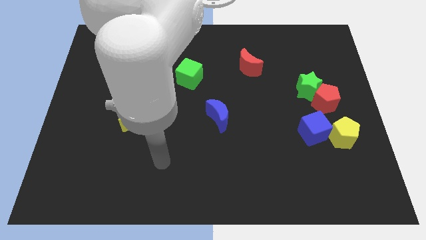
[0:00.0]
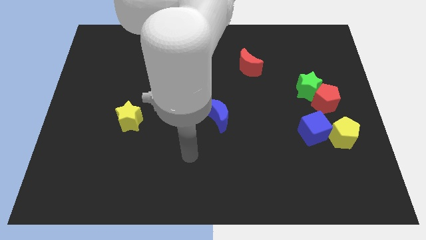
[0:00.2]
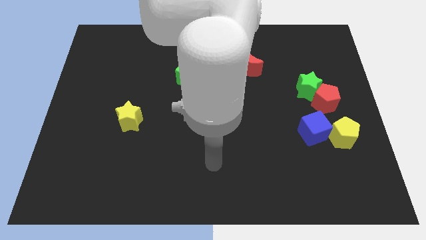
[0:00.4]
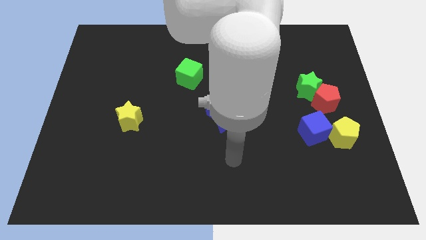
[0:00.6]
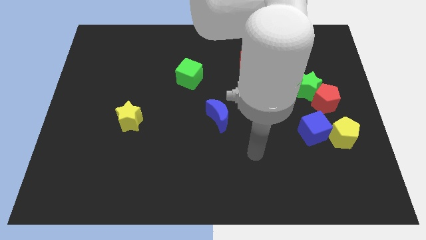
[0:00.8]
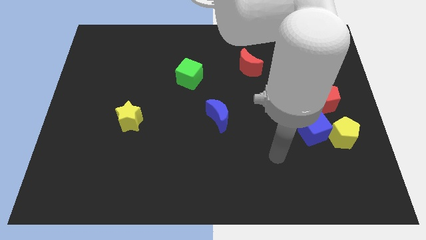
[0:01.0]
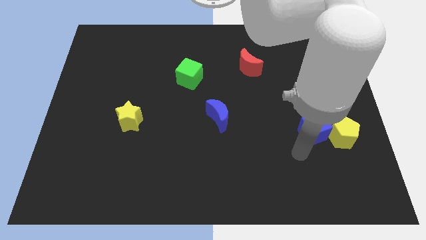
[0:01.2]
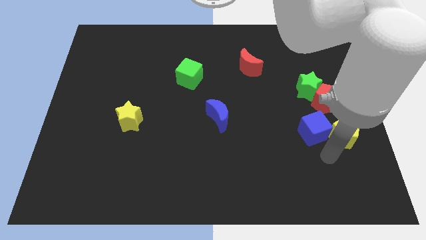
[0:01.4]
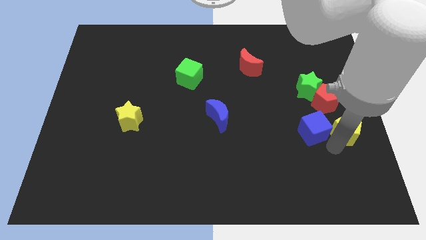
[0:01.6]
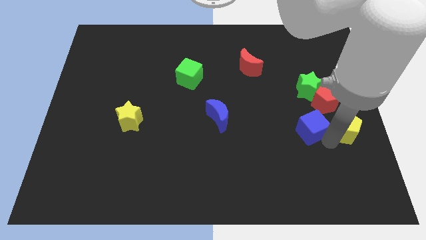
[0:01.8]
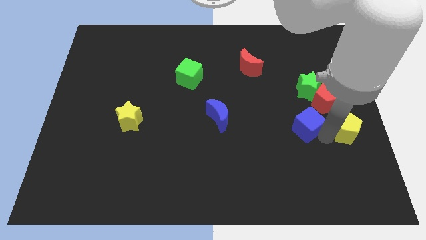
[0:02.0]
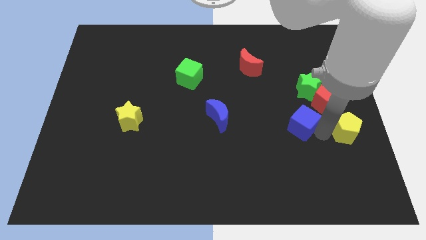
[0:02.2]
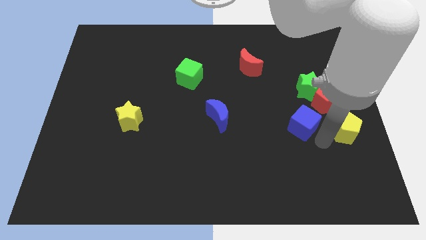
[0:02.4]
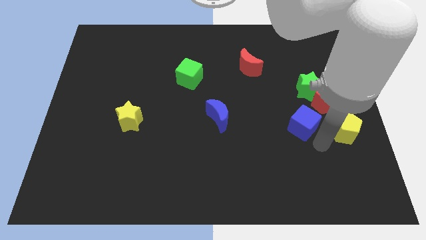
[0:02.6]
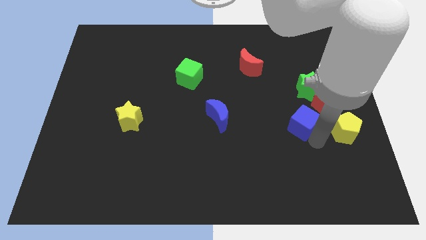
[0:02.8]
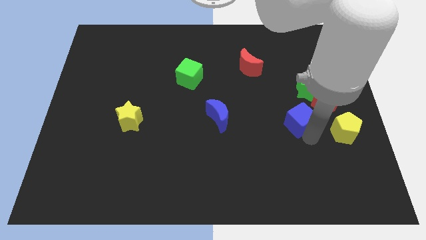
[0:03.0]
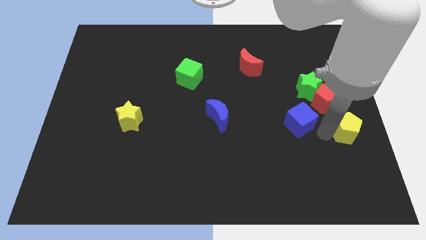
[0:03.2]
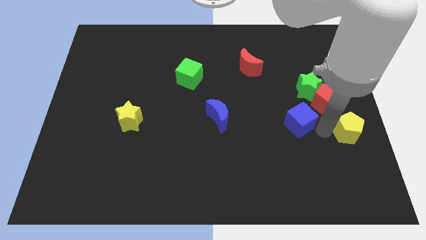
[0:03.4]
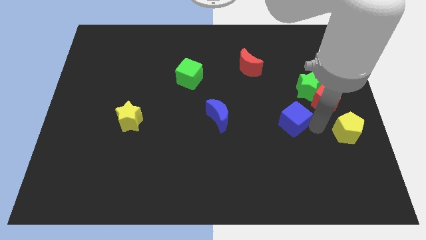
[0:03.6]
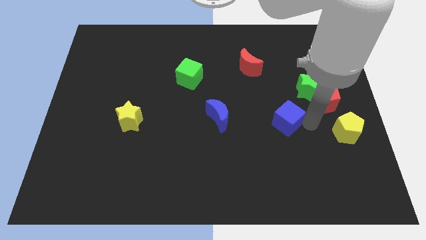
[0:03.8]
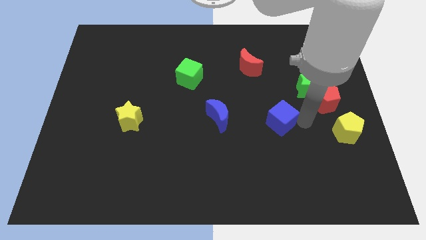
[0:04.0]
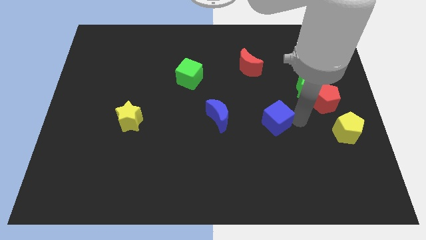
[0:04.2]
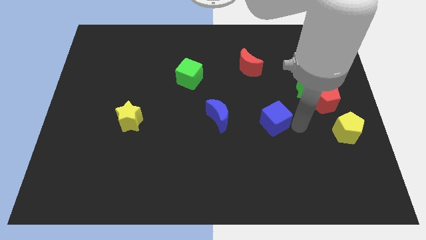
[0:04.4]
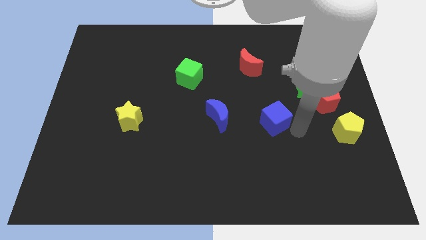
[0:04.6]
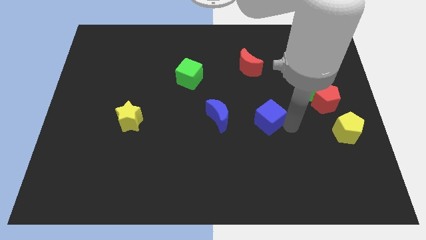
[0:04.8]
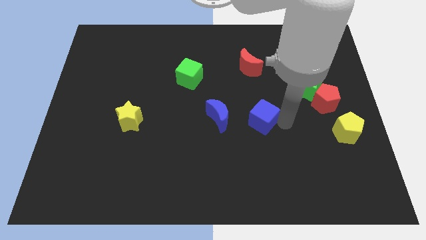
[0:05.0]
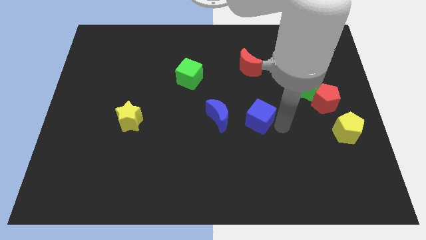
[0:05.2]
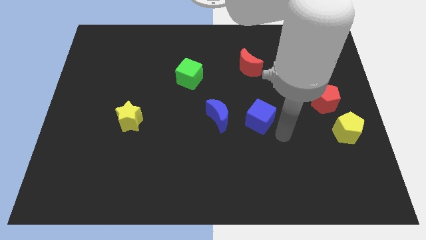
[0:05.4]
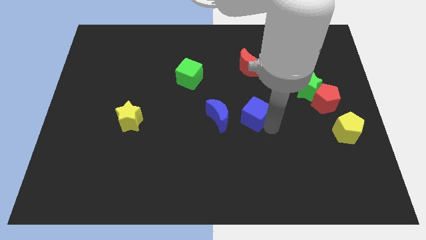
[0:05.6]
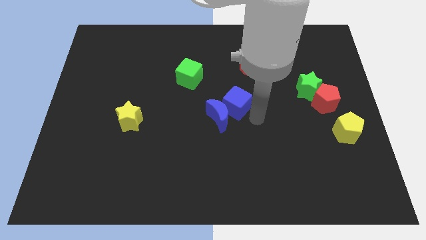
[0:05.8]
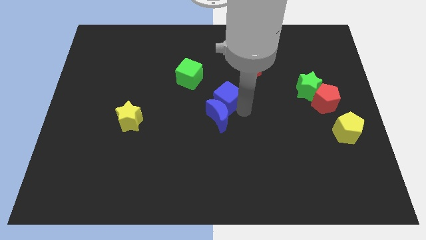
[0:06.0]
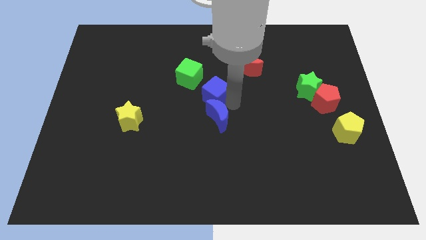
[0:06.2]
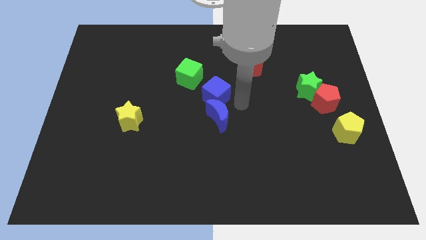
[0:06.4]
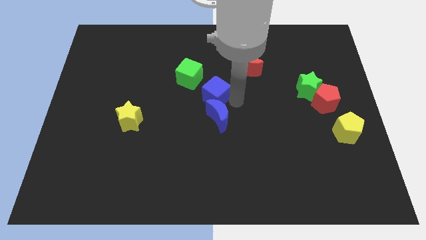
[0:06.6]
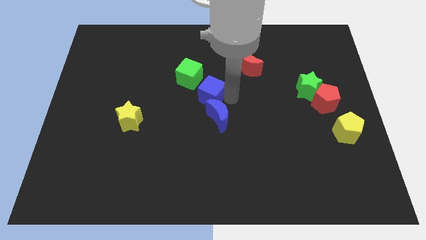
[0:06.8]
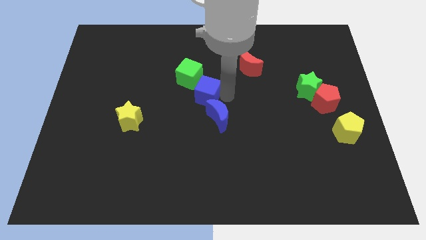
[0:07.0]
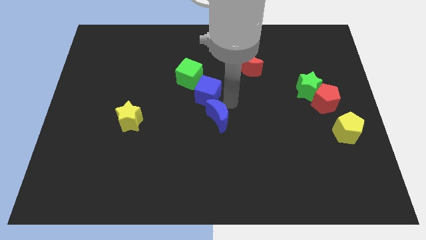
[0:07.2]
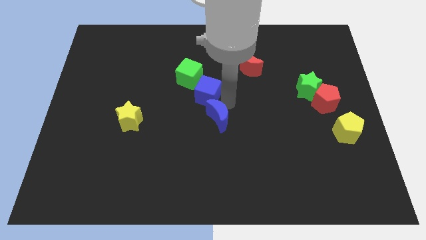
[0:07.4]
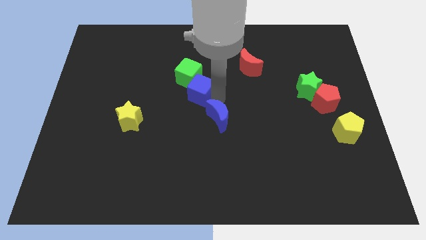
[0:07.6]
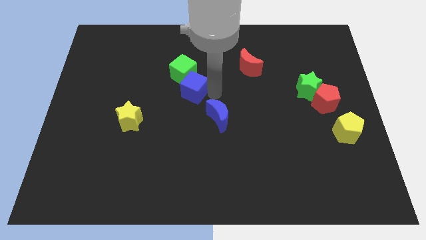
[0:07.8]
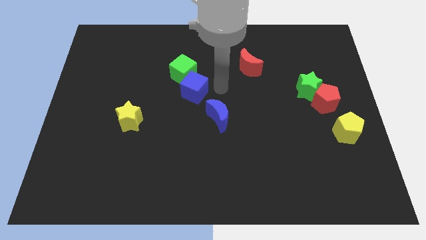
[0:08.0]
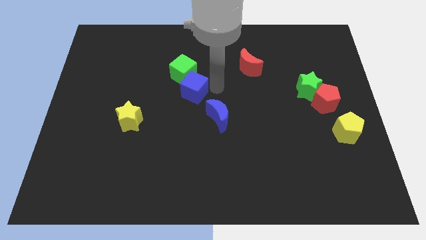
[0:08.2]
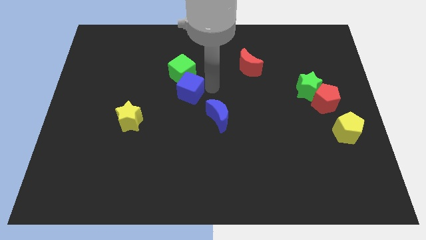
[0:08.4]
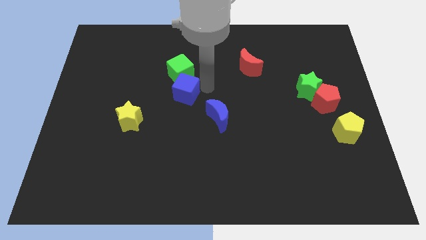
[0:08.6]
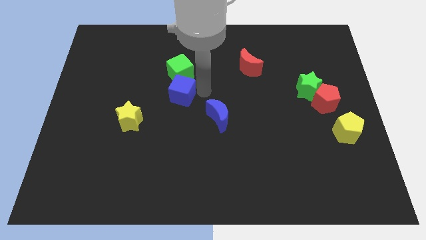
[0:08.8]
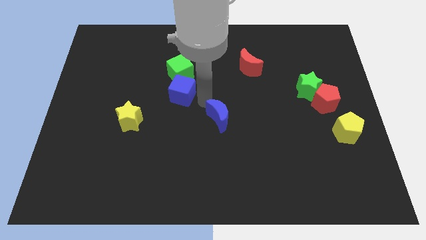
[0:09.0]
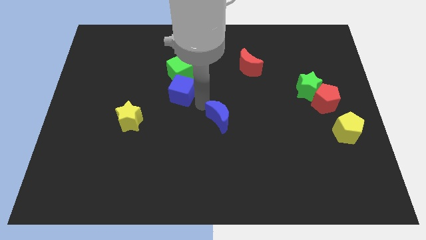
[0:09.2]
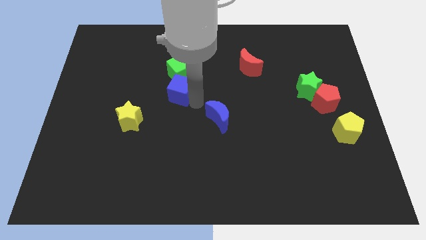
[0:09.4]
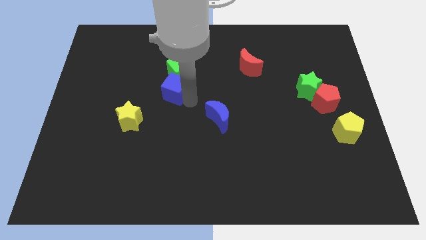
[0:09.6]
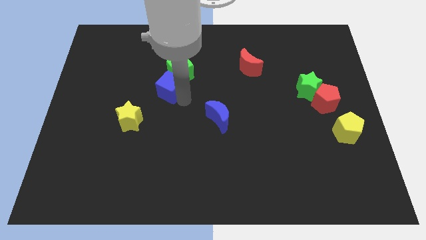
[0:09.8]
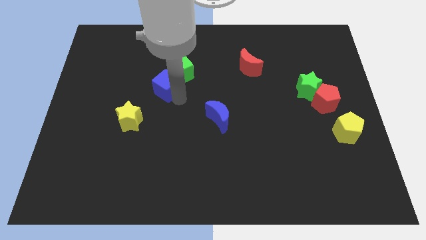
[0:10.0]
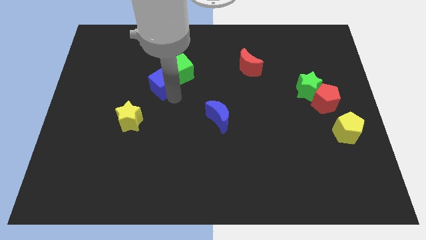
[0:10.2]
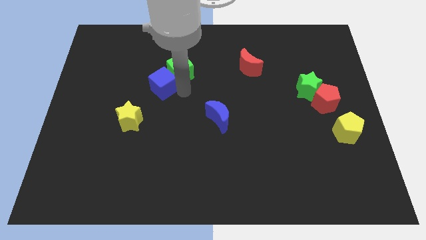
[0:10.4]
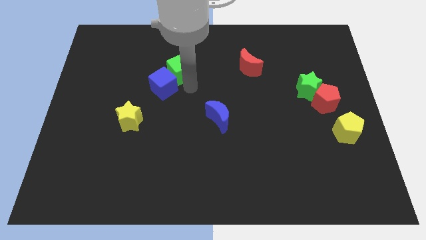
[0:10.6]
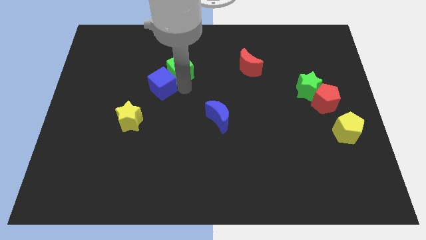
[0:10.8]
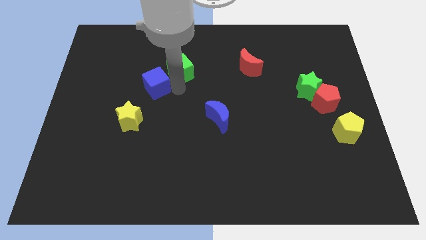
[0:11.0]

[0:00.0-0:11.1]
put the blue cube above the yellow star

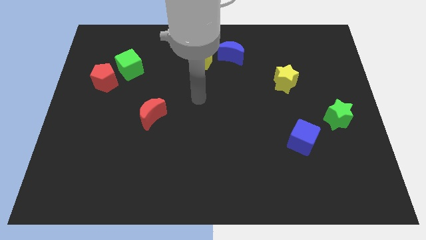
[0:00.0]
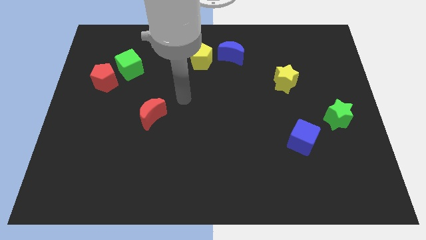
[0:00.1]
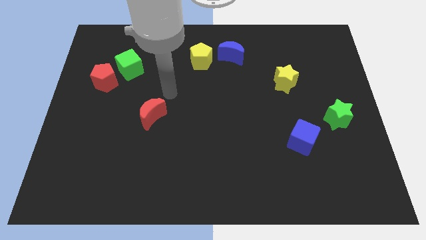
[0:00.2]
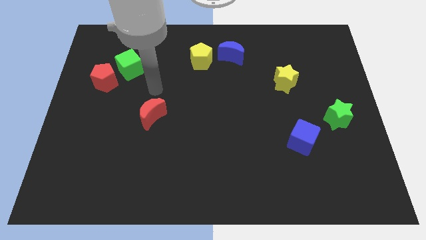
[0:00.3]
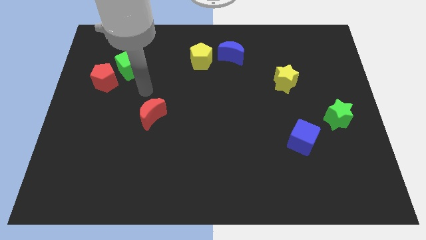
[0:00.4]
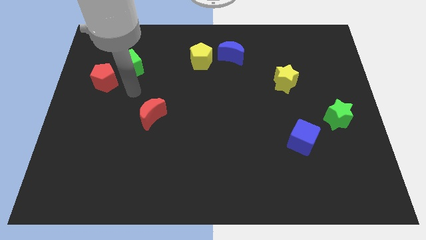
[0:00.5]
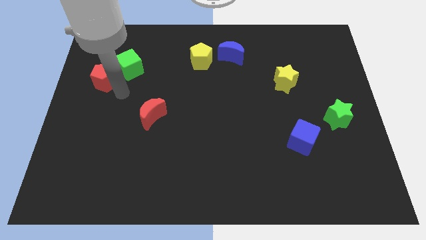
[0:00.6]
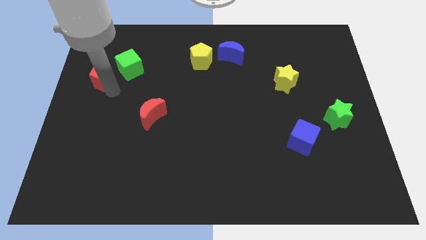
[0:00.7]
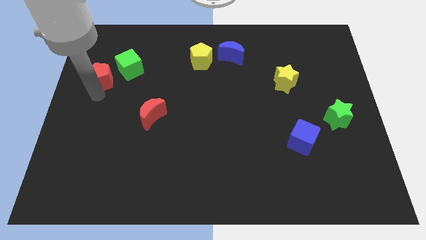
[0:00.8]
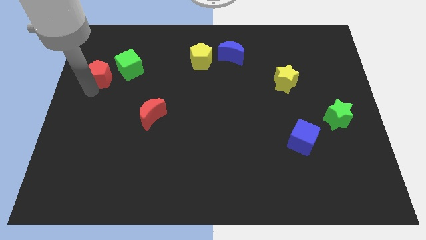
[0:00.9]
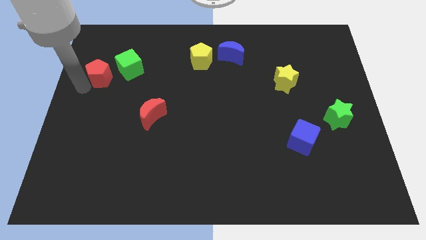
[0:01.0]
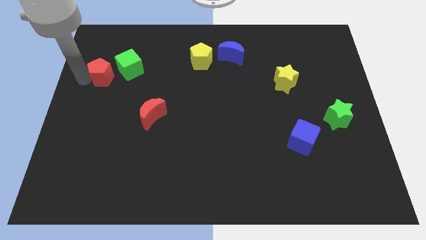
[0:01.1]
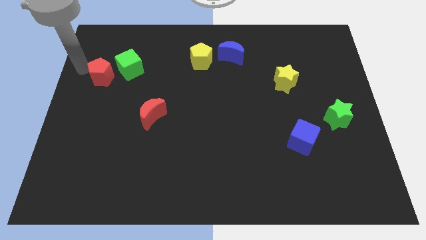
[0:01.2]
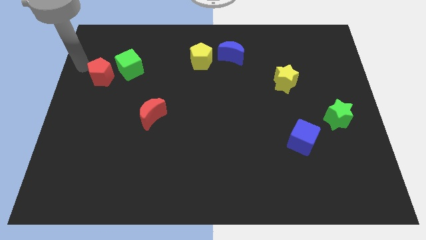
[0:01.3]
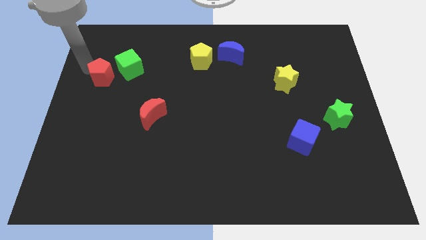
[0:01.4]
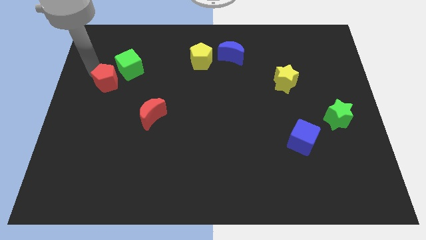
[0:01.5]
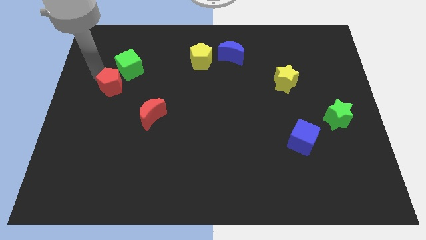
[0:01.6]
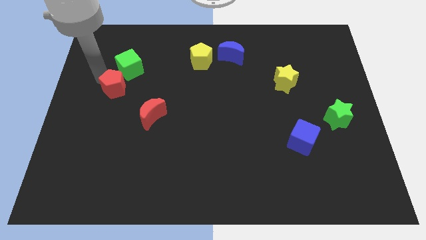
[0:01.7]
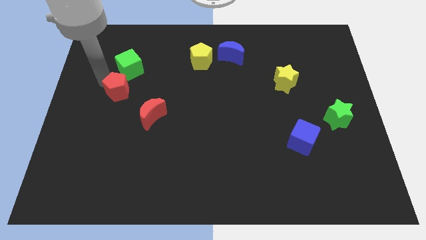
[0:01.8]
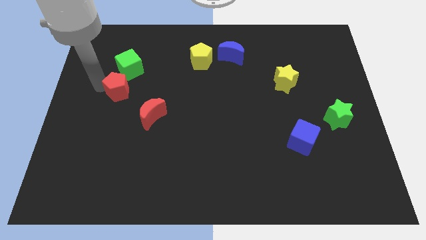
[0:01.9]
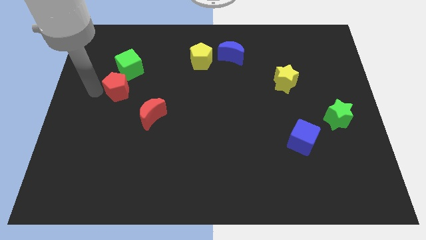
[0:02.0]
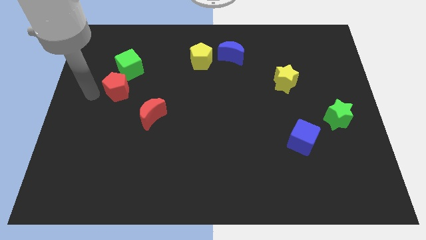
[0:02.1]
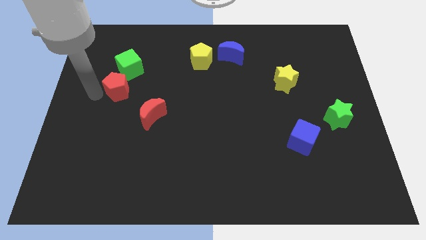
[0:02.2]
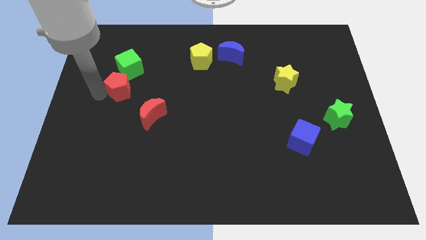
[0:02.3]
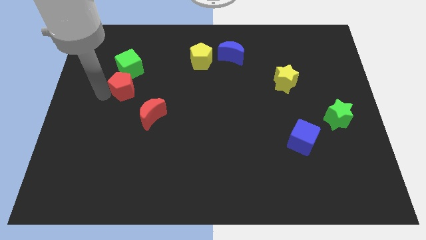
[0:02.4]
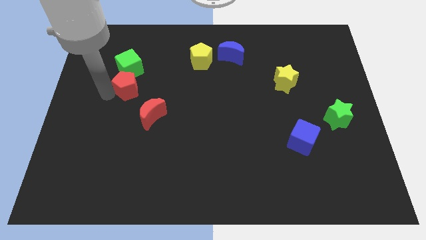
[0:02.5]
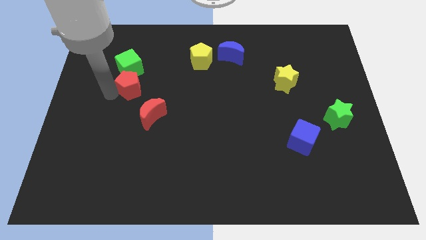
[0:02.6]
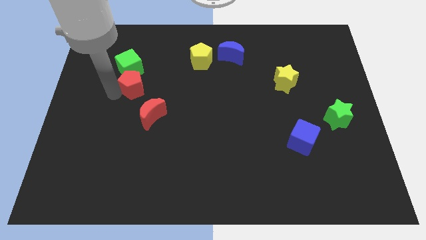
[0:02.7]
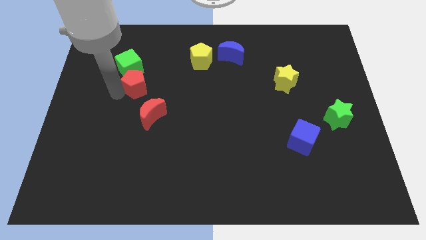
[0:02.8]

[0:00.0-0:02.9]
move the red pentagon to the top side of the red moon
